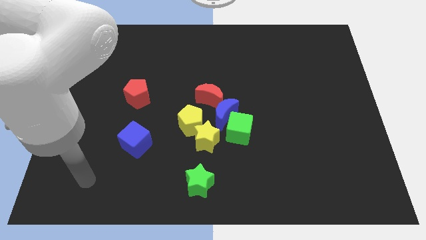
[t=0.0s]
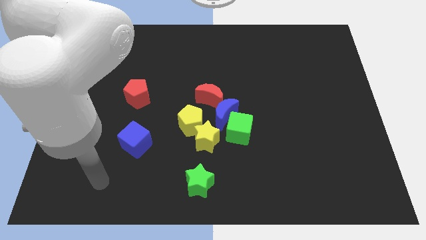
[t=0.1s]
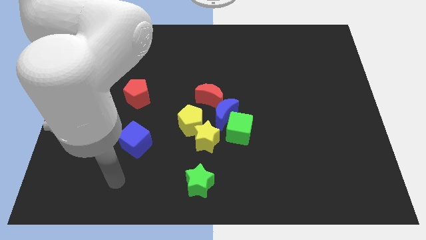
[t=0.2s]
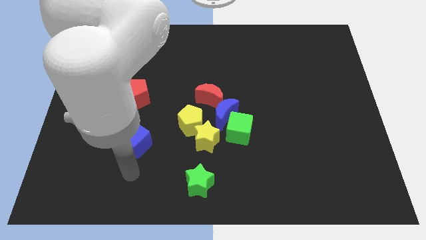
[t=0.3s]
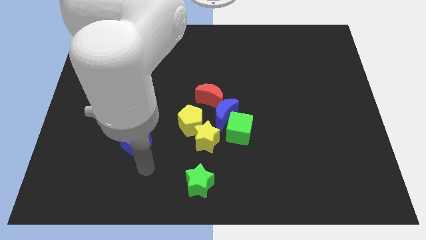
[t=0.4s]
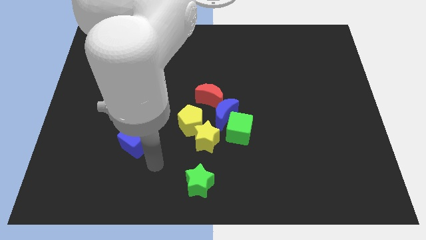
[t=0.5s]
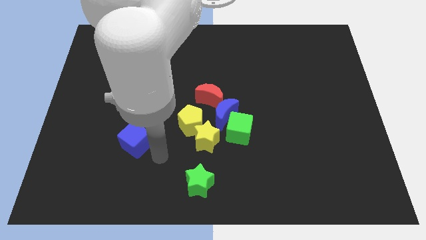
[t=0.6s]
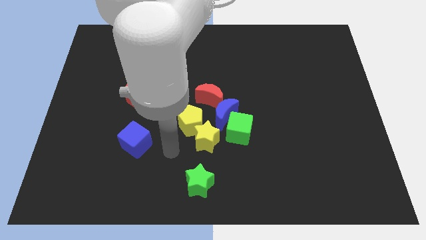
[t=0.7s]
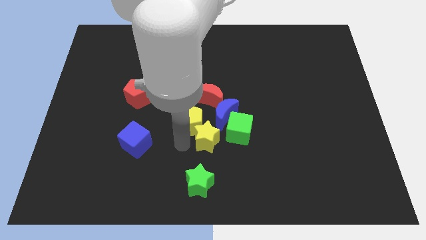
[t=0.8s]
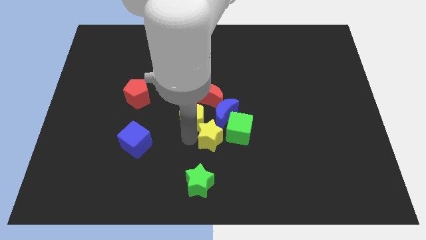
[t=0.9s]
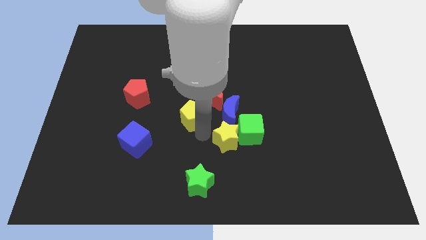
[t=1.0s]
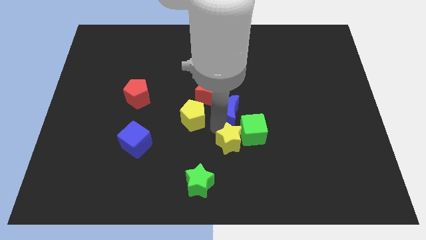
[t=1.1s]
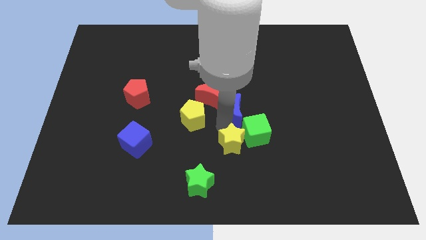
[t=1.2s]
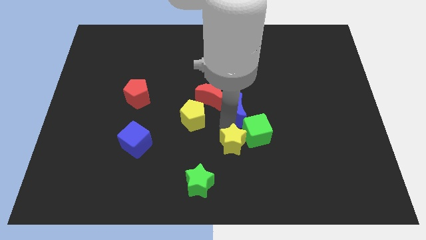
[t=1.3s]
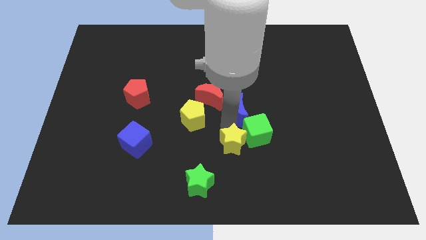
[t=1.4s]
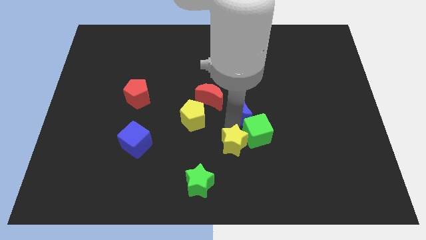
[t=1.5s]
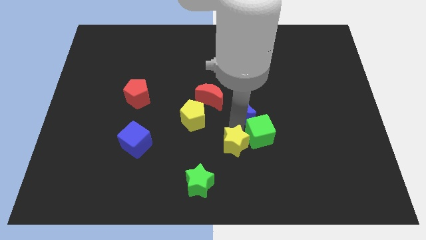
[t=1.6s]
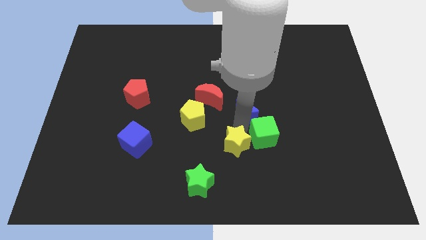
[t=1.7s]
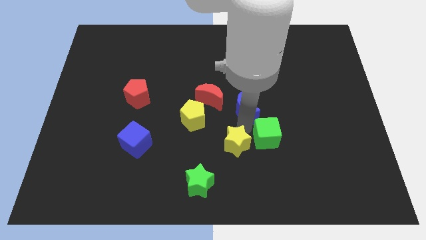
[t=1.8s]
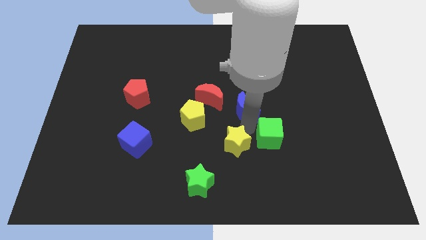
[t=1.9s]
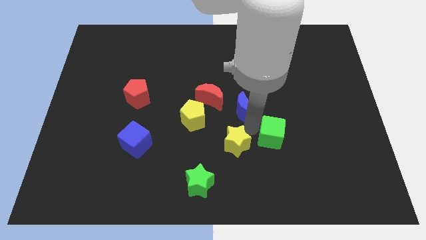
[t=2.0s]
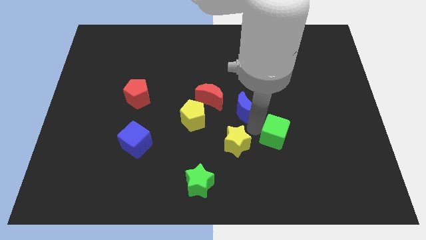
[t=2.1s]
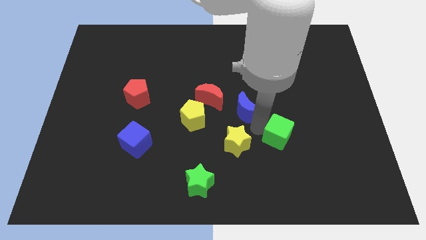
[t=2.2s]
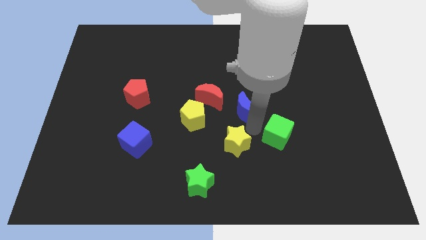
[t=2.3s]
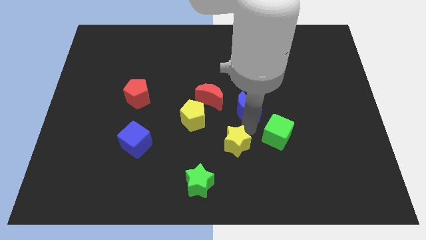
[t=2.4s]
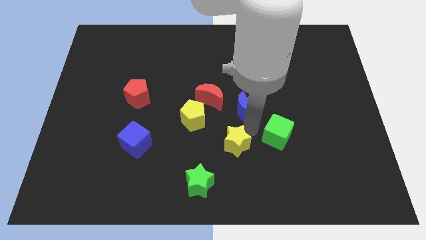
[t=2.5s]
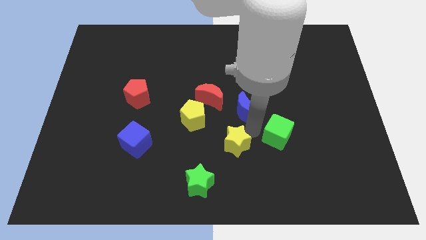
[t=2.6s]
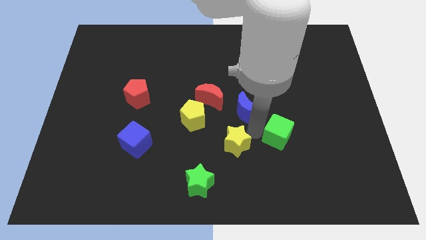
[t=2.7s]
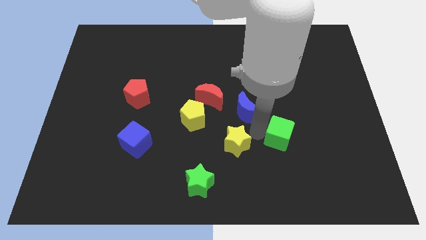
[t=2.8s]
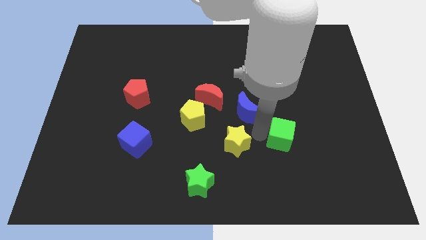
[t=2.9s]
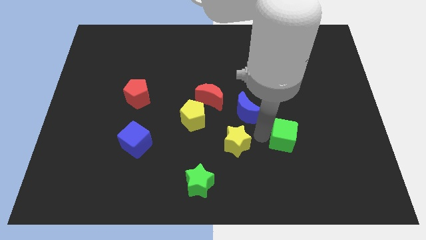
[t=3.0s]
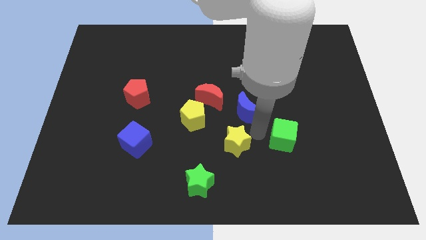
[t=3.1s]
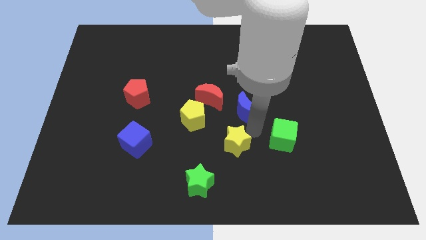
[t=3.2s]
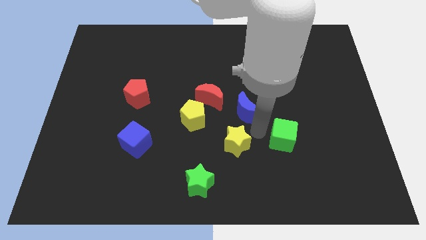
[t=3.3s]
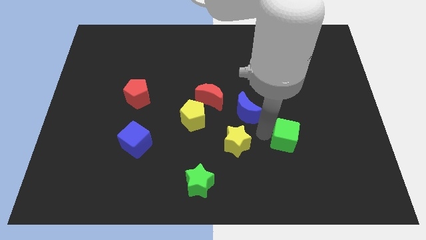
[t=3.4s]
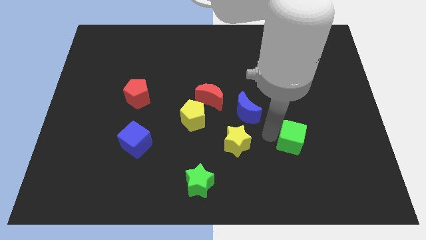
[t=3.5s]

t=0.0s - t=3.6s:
move the green cube away from the blue moon and yellow star

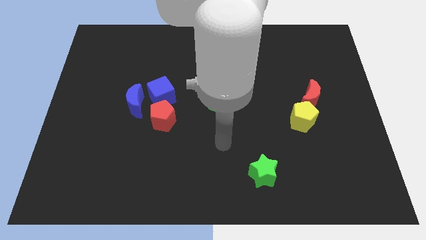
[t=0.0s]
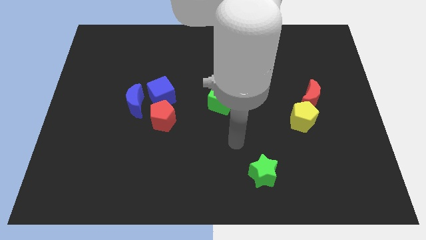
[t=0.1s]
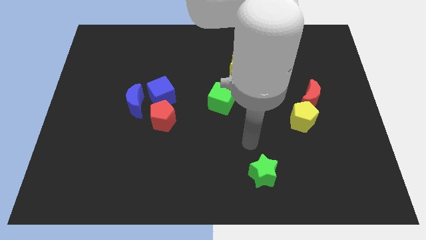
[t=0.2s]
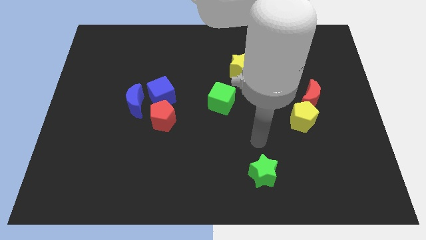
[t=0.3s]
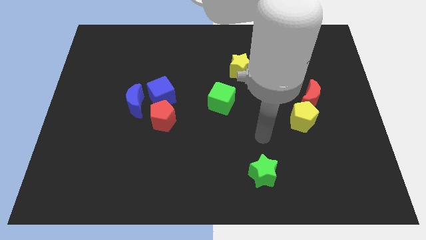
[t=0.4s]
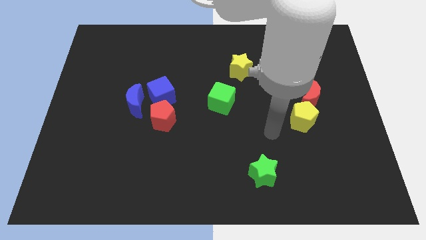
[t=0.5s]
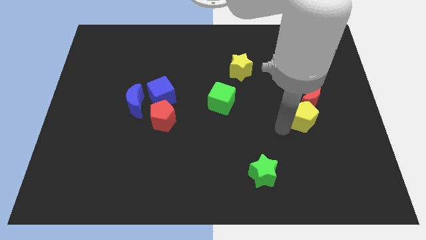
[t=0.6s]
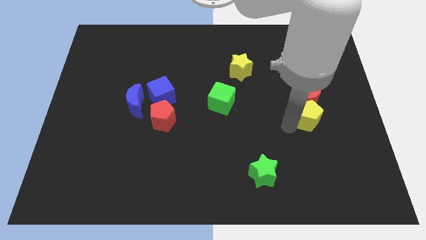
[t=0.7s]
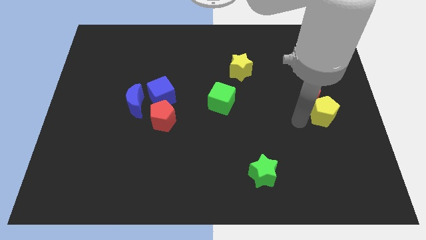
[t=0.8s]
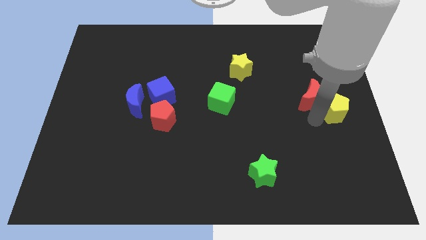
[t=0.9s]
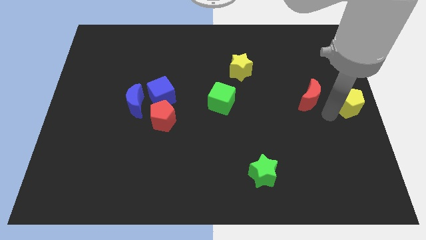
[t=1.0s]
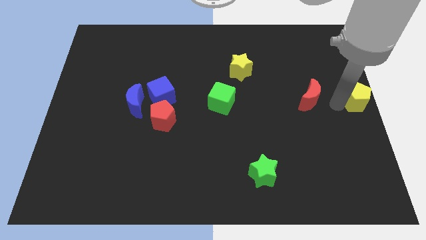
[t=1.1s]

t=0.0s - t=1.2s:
pull the red moon apart from the yellow pentagon

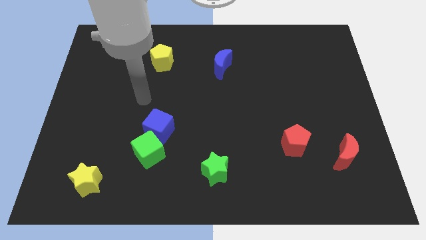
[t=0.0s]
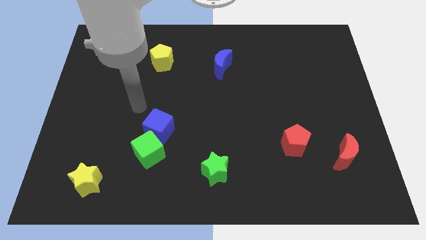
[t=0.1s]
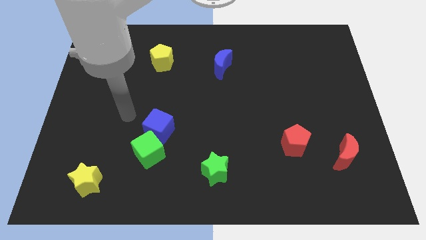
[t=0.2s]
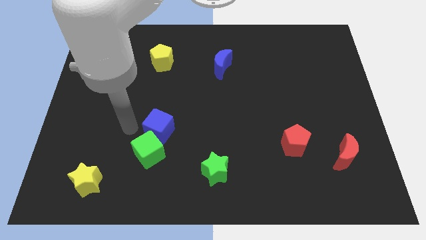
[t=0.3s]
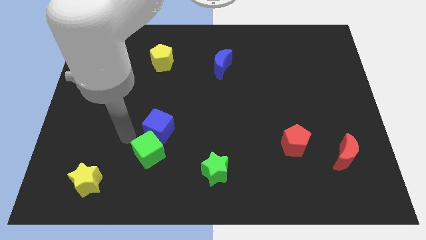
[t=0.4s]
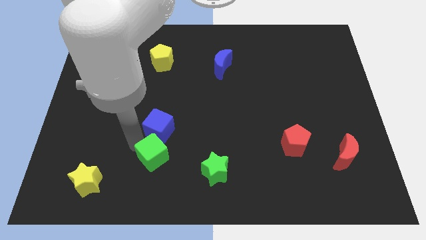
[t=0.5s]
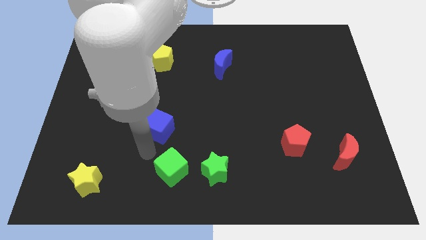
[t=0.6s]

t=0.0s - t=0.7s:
move the blue cube away from the green cube

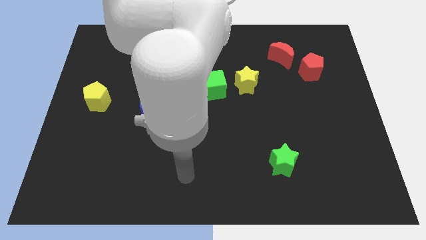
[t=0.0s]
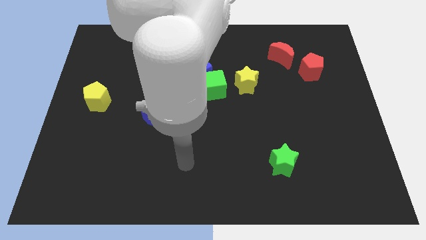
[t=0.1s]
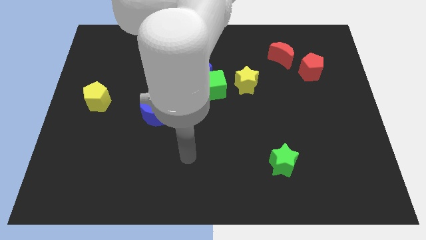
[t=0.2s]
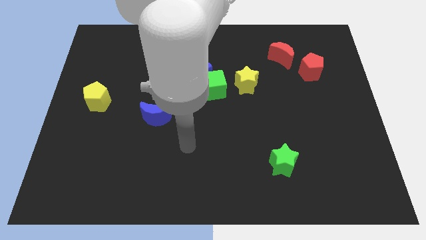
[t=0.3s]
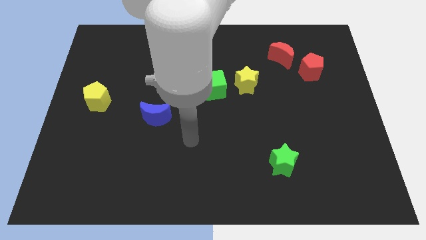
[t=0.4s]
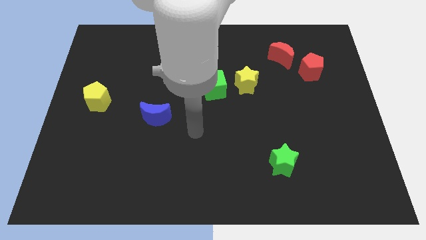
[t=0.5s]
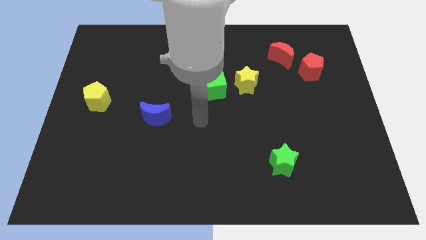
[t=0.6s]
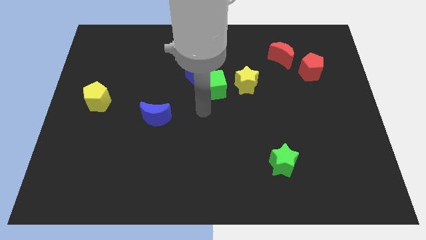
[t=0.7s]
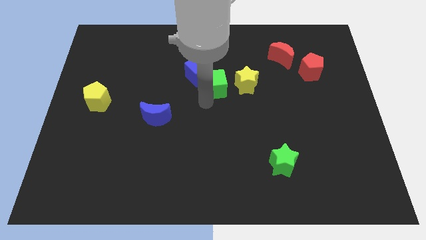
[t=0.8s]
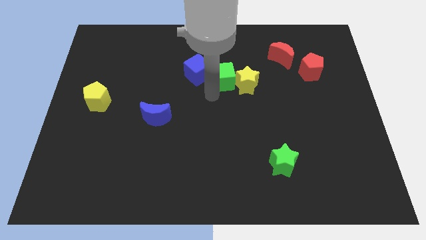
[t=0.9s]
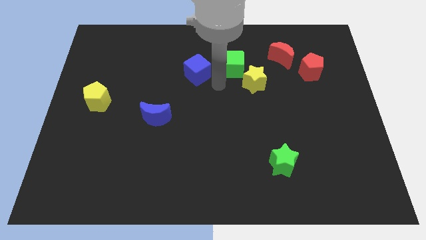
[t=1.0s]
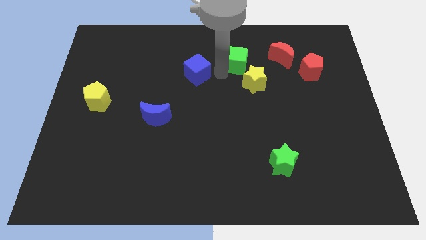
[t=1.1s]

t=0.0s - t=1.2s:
pull the blue cube apart from the green cube

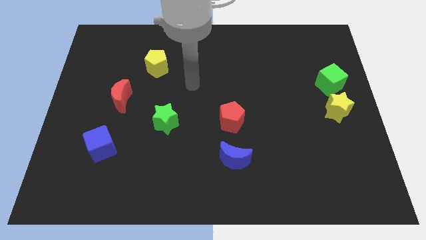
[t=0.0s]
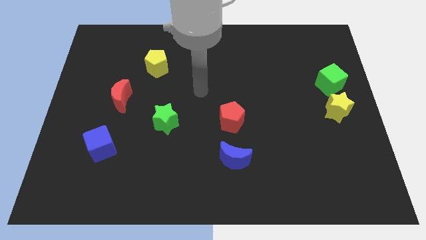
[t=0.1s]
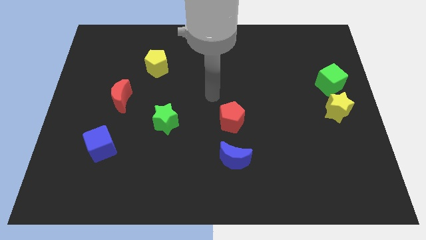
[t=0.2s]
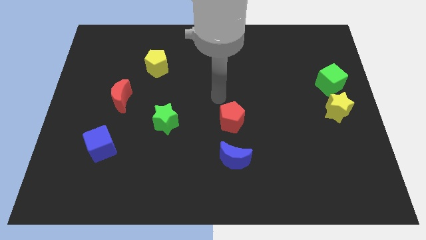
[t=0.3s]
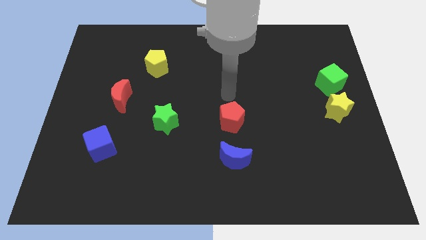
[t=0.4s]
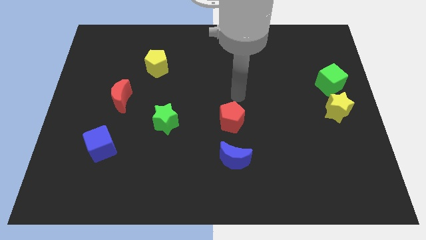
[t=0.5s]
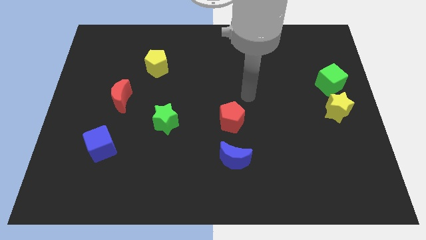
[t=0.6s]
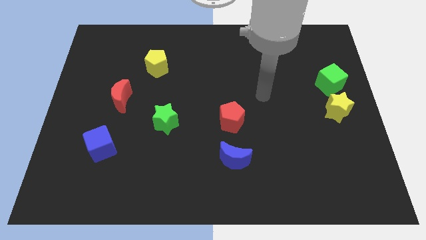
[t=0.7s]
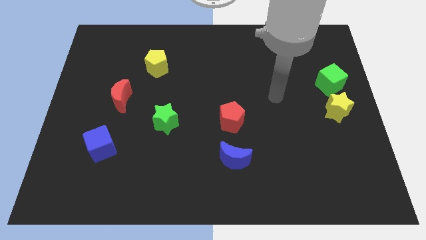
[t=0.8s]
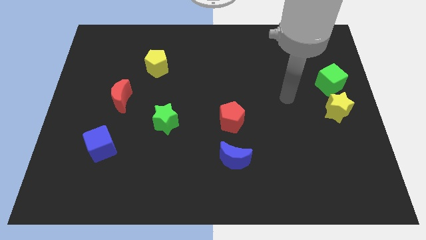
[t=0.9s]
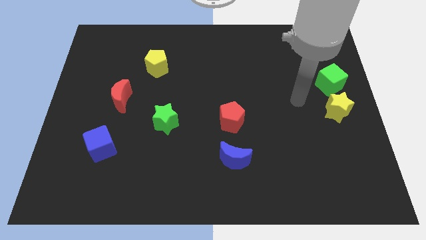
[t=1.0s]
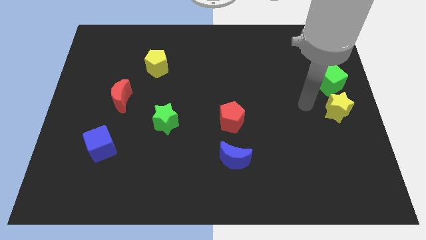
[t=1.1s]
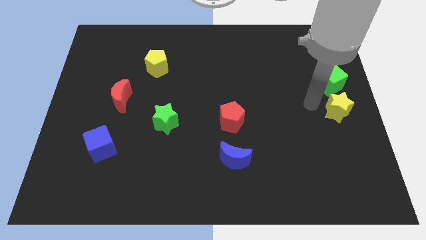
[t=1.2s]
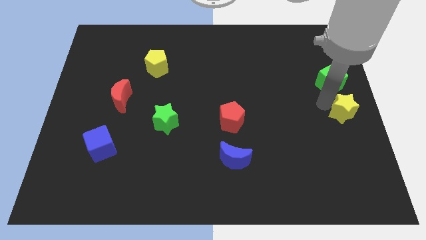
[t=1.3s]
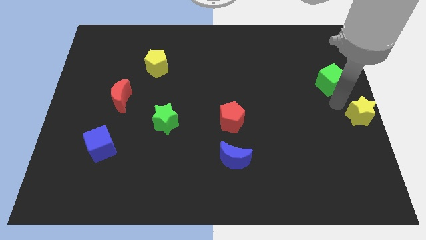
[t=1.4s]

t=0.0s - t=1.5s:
pull the green cube apart from the yellow star

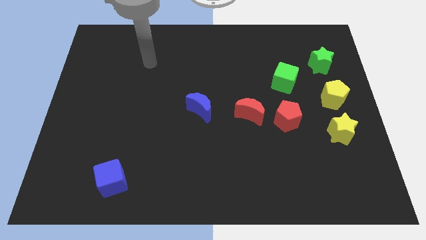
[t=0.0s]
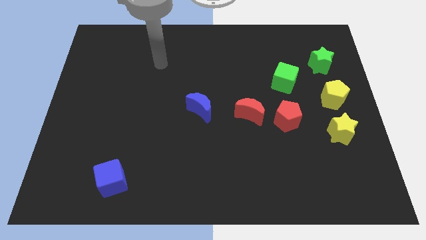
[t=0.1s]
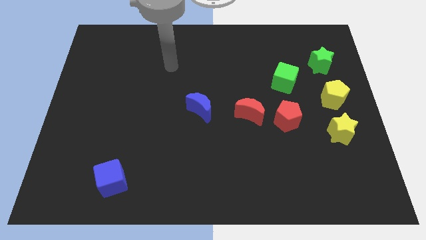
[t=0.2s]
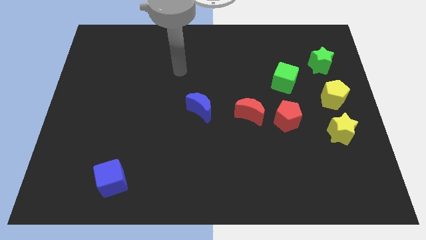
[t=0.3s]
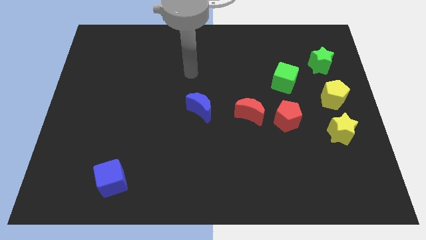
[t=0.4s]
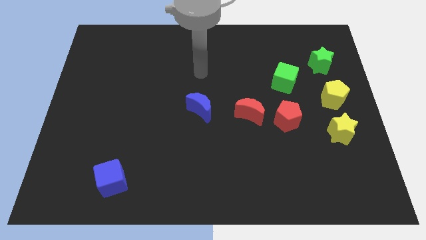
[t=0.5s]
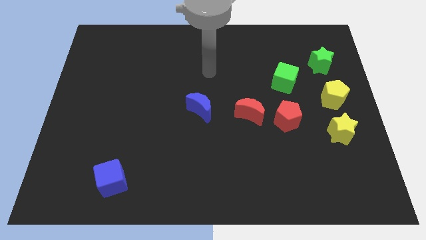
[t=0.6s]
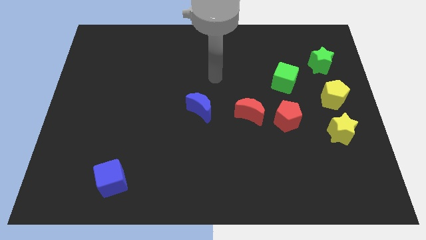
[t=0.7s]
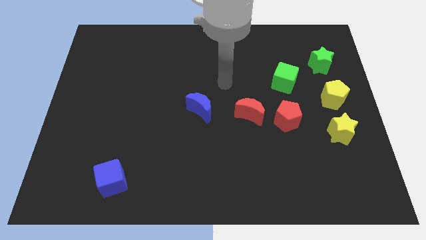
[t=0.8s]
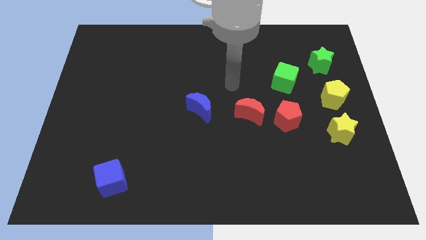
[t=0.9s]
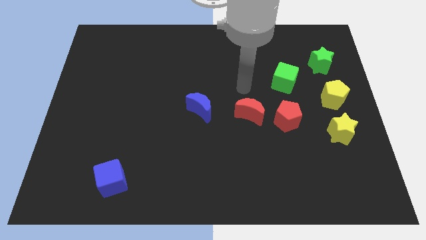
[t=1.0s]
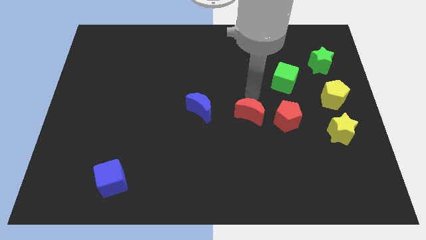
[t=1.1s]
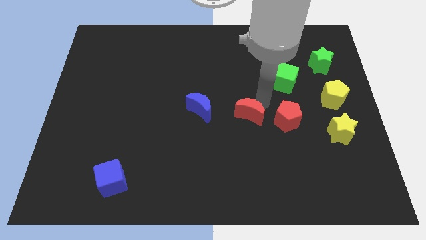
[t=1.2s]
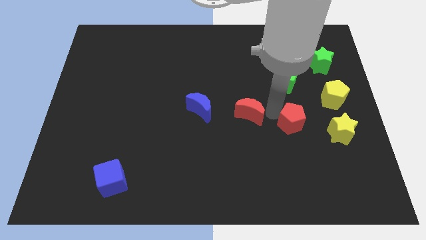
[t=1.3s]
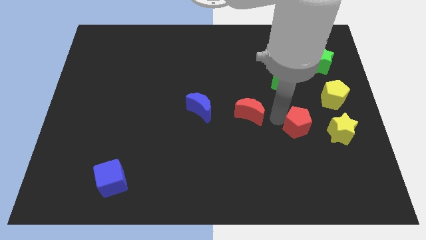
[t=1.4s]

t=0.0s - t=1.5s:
separate the red moon from the red pentagon
